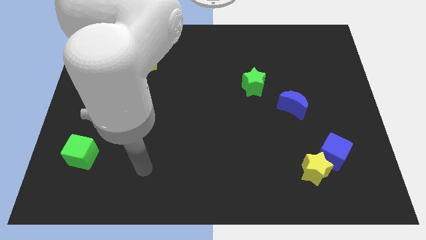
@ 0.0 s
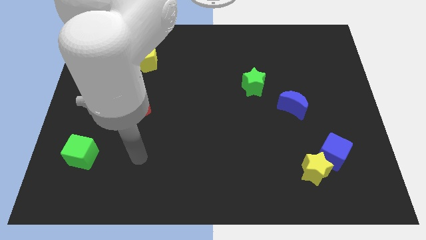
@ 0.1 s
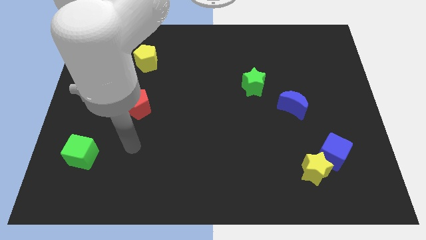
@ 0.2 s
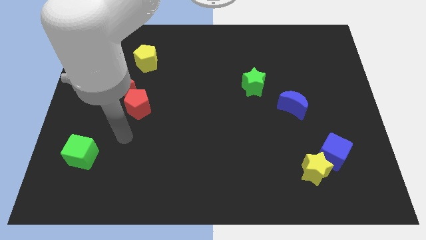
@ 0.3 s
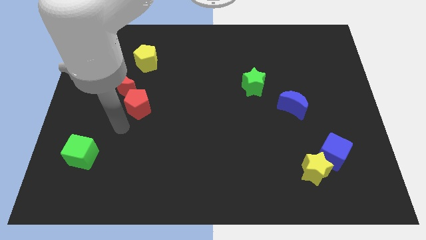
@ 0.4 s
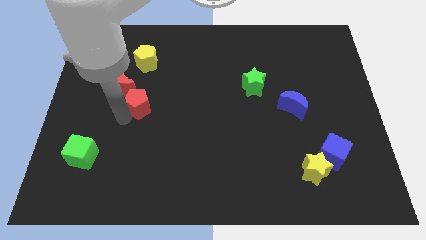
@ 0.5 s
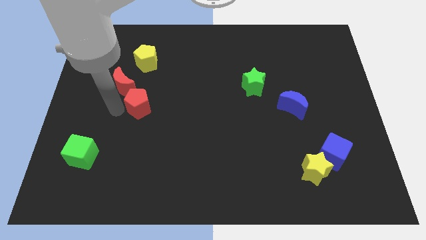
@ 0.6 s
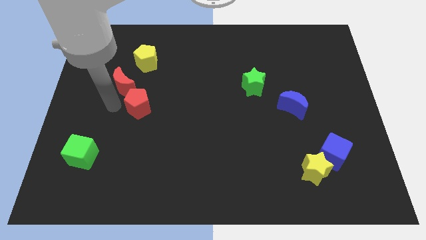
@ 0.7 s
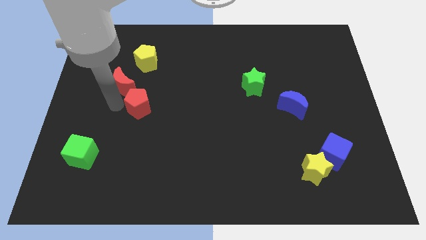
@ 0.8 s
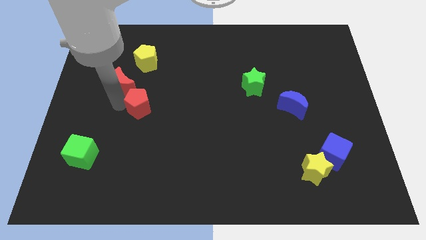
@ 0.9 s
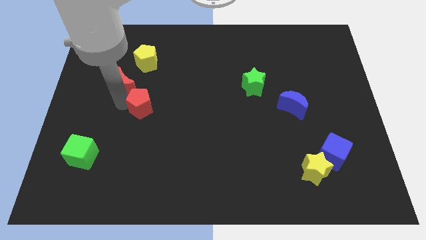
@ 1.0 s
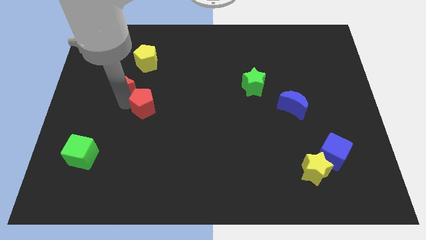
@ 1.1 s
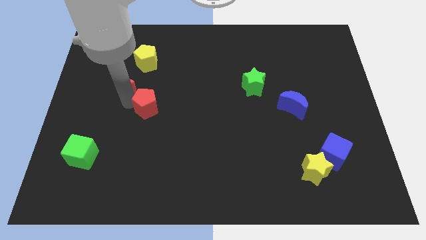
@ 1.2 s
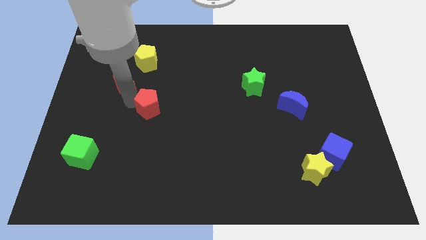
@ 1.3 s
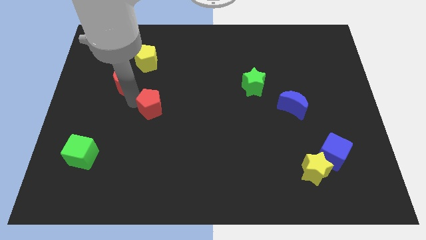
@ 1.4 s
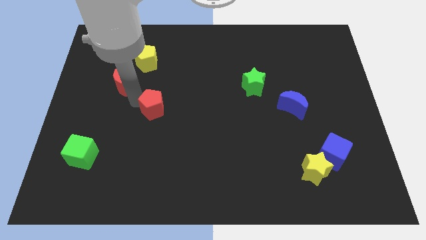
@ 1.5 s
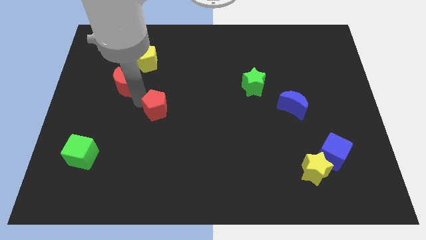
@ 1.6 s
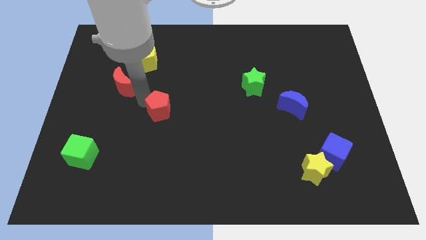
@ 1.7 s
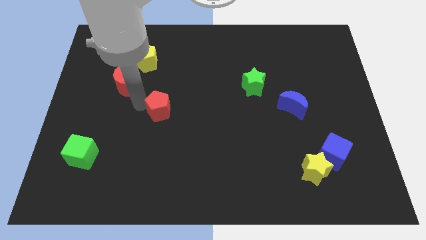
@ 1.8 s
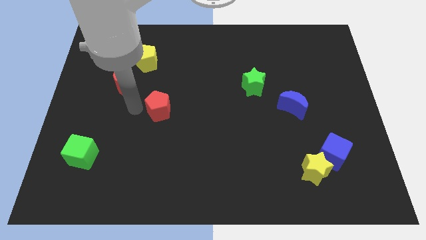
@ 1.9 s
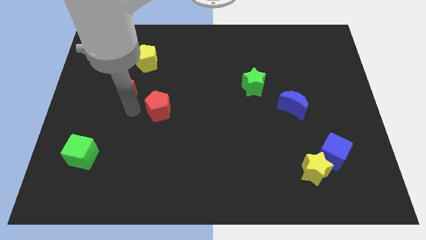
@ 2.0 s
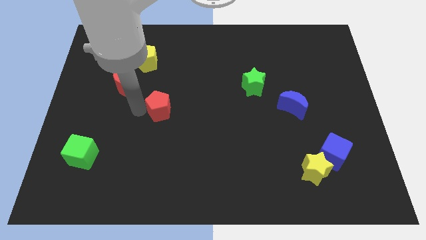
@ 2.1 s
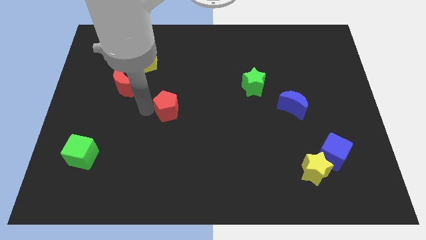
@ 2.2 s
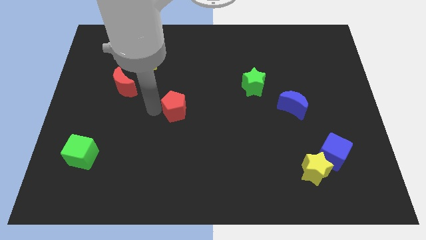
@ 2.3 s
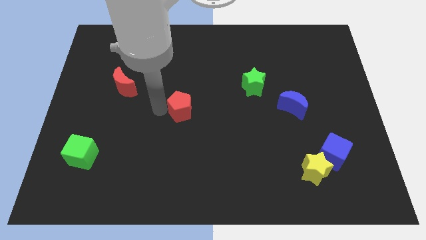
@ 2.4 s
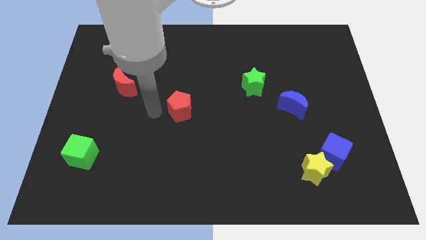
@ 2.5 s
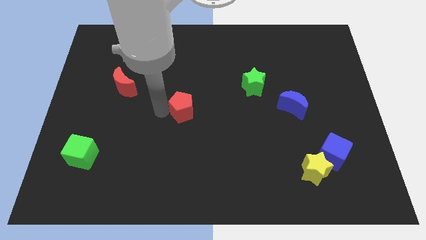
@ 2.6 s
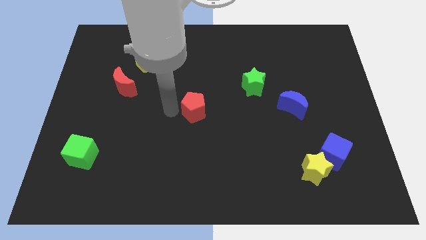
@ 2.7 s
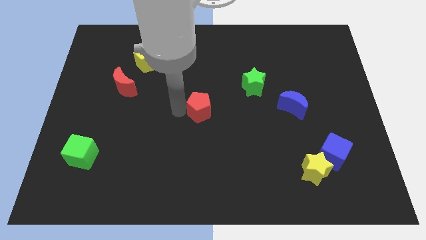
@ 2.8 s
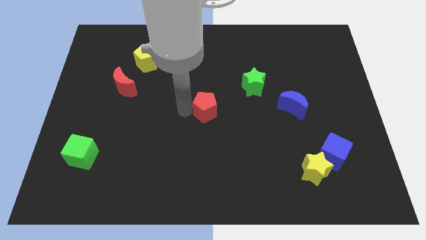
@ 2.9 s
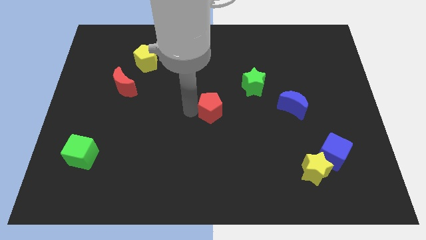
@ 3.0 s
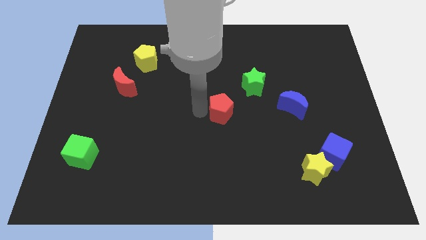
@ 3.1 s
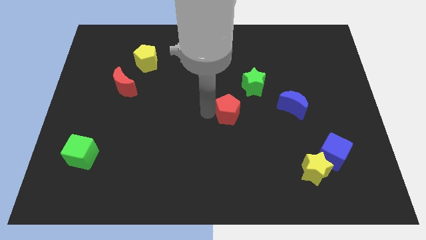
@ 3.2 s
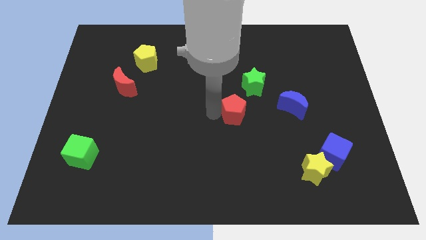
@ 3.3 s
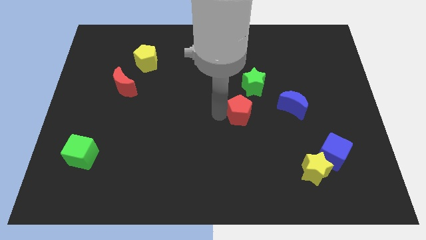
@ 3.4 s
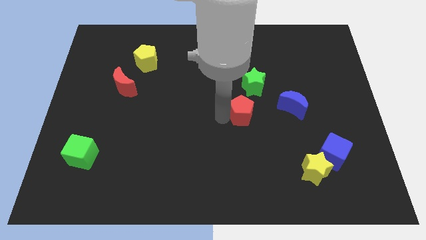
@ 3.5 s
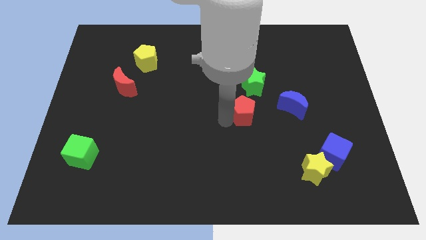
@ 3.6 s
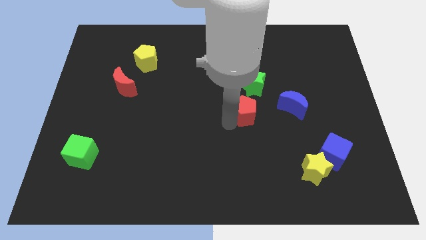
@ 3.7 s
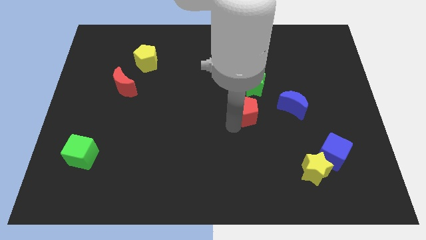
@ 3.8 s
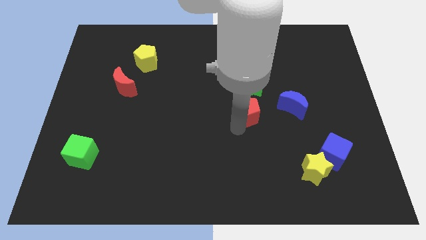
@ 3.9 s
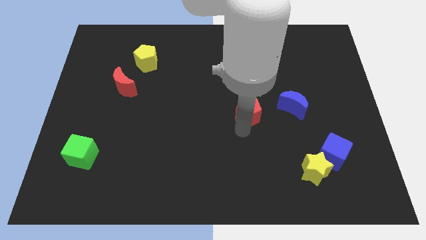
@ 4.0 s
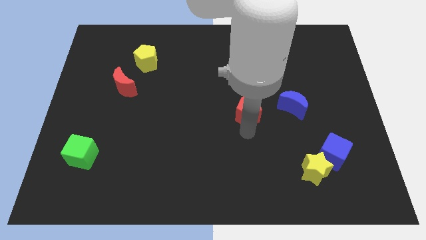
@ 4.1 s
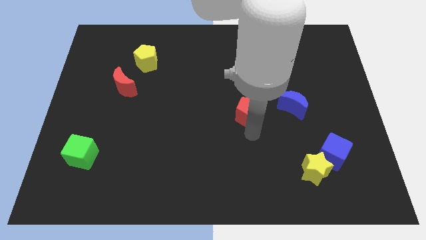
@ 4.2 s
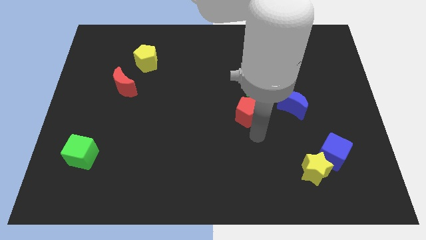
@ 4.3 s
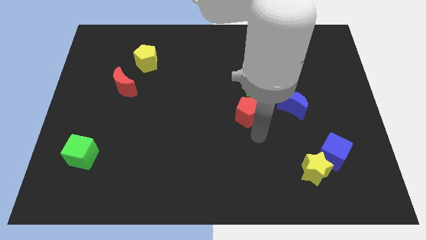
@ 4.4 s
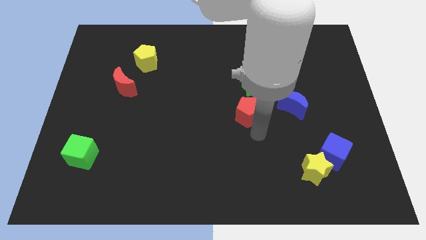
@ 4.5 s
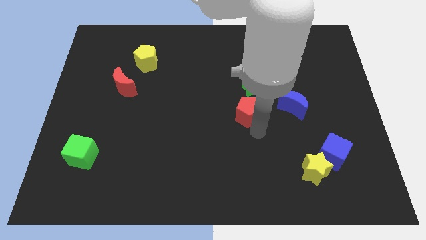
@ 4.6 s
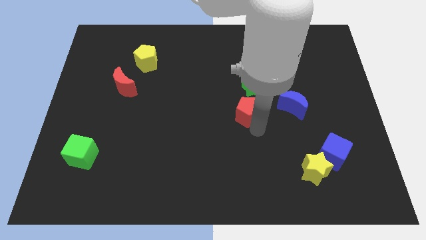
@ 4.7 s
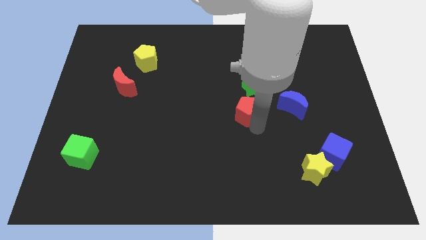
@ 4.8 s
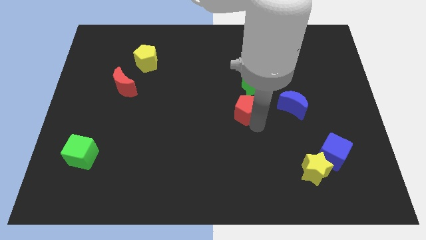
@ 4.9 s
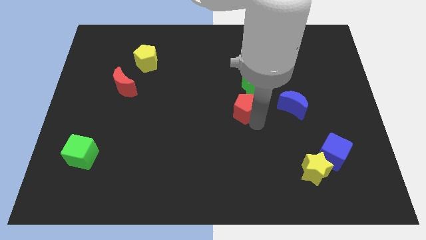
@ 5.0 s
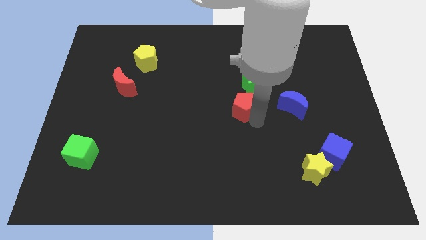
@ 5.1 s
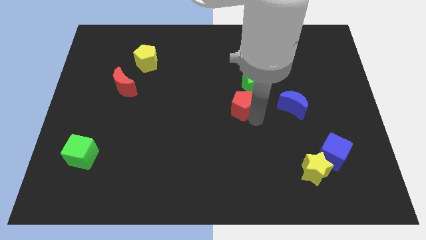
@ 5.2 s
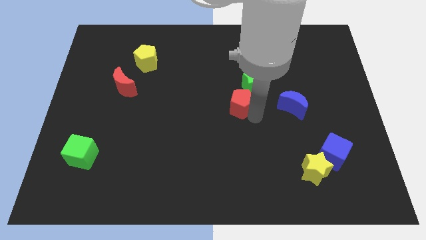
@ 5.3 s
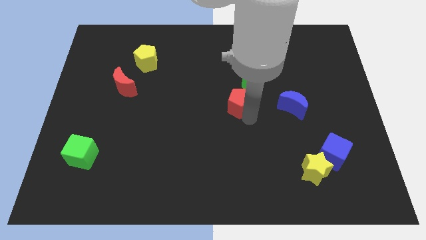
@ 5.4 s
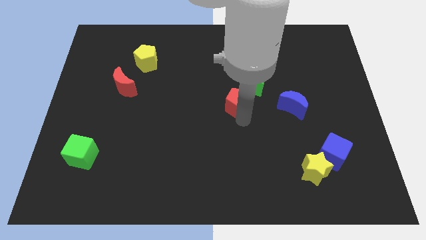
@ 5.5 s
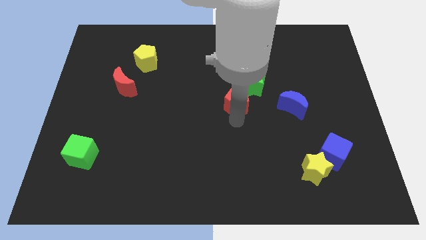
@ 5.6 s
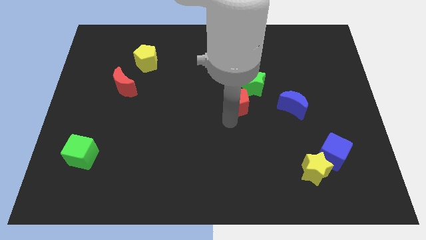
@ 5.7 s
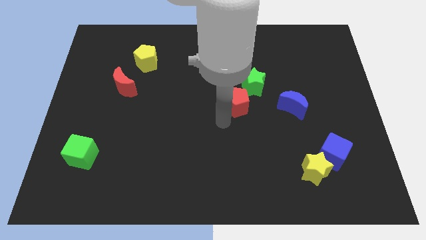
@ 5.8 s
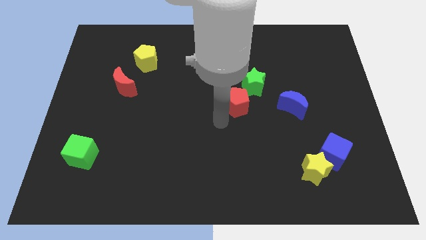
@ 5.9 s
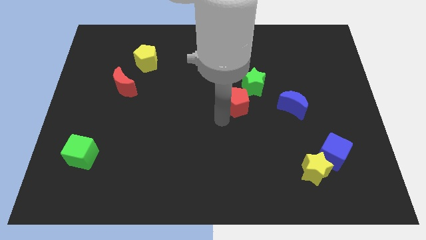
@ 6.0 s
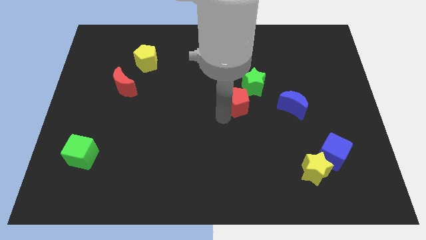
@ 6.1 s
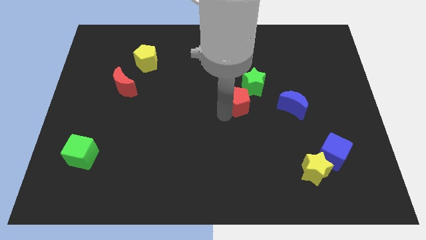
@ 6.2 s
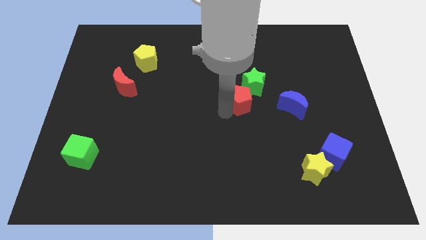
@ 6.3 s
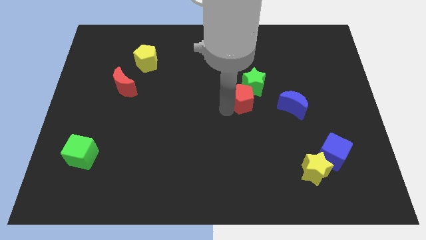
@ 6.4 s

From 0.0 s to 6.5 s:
put the red pentagon close to the green star
